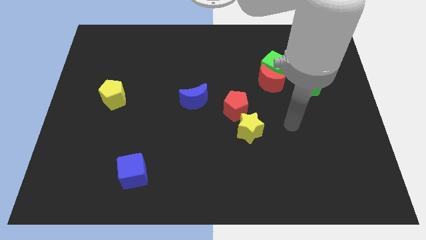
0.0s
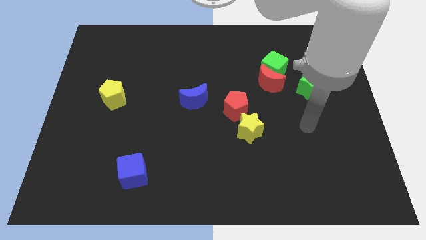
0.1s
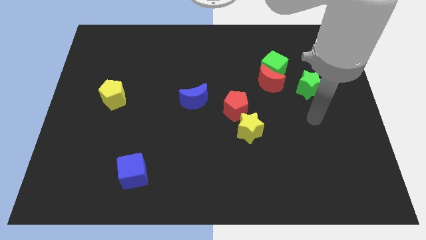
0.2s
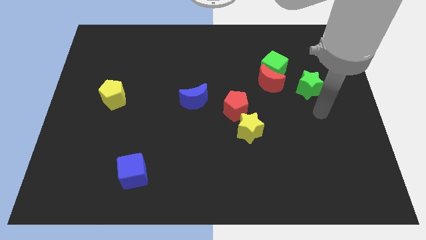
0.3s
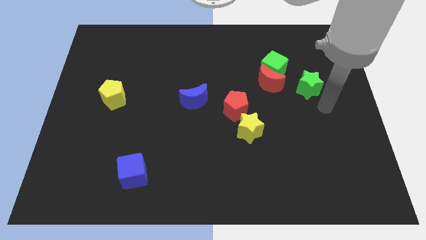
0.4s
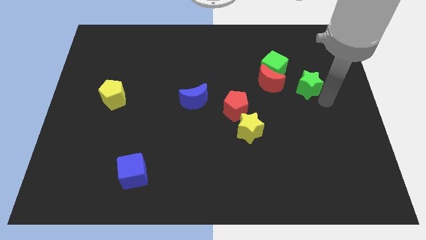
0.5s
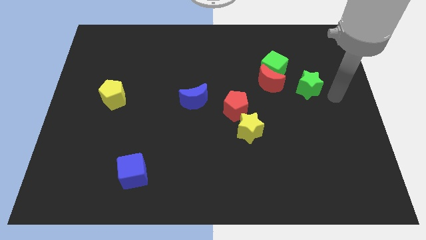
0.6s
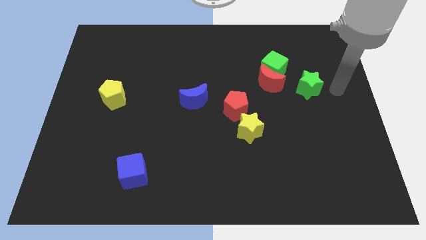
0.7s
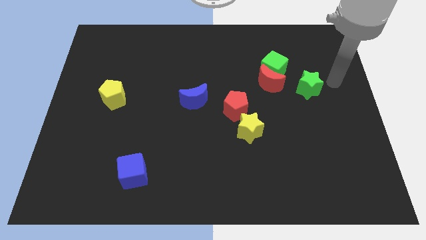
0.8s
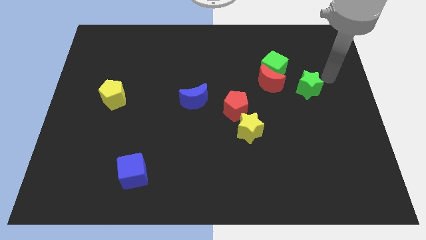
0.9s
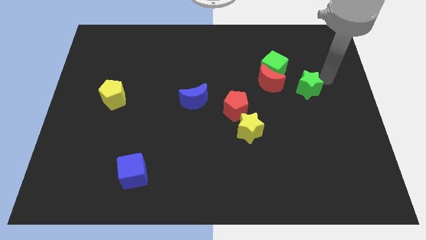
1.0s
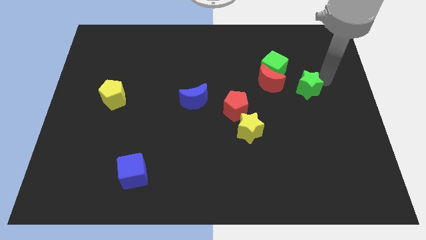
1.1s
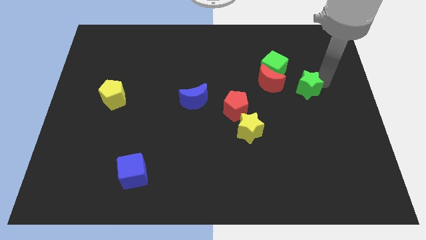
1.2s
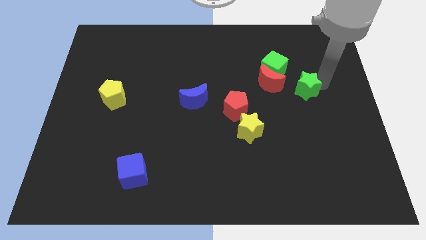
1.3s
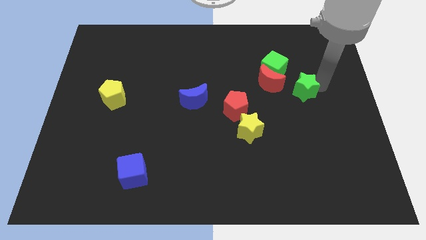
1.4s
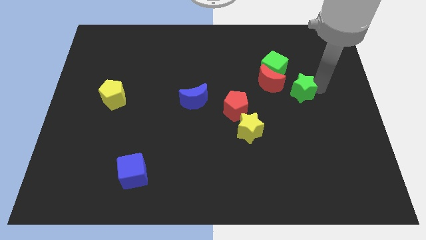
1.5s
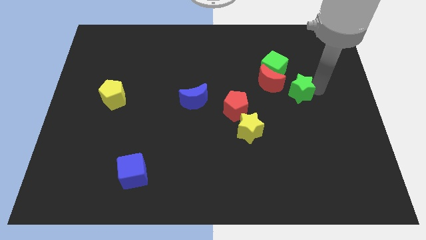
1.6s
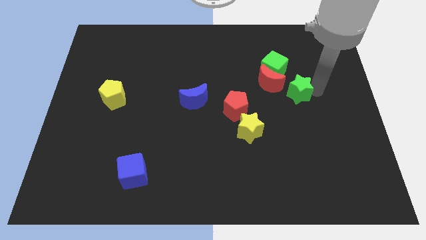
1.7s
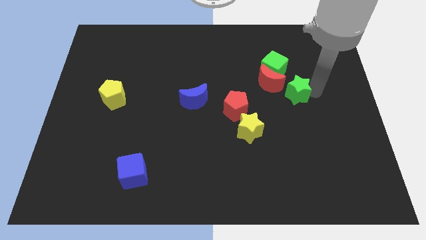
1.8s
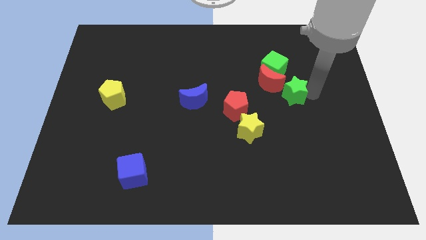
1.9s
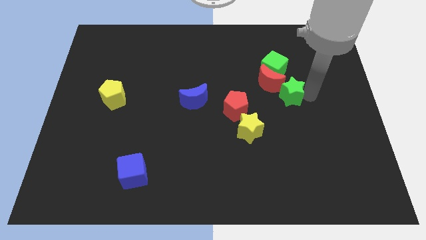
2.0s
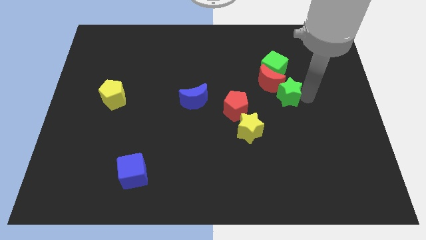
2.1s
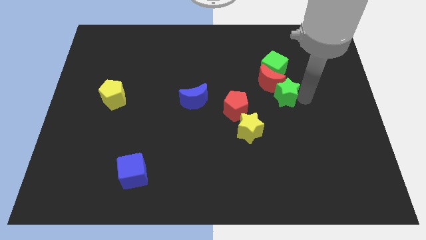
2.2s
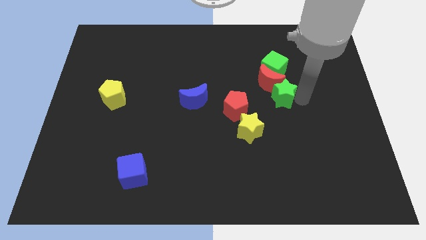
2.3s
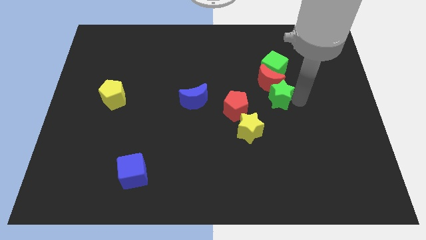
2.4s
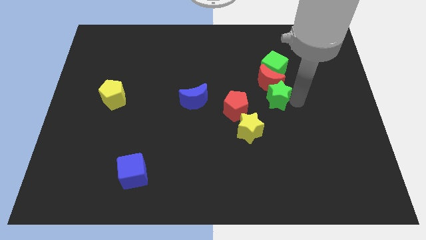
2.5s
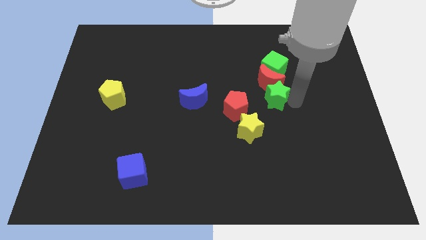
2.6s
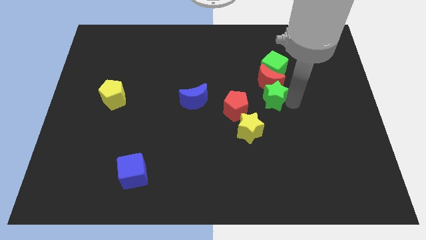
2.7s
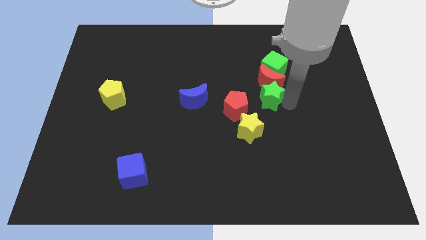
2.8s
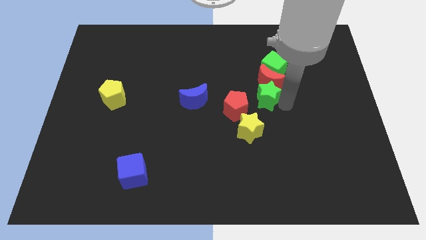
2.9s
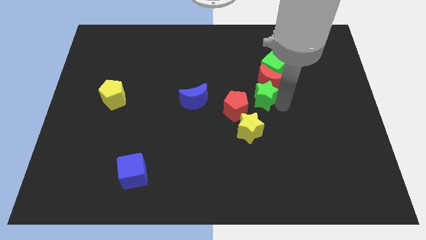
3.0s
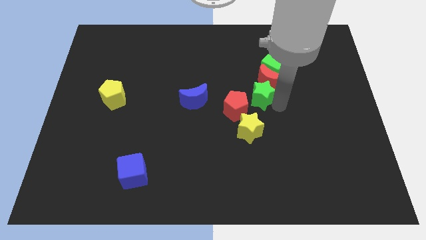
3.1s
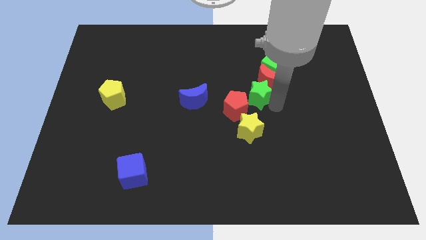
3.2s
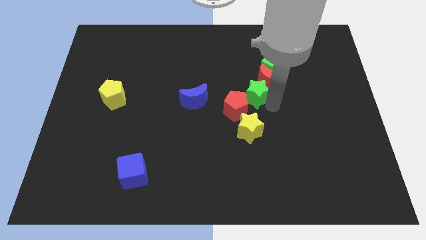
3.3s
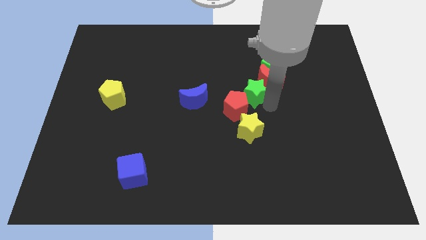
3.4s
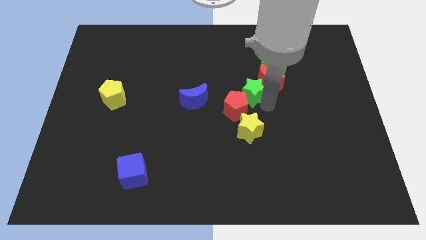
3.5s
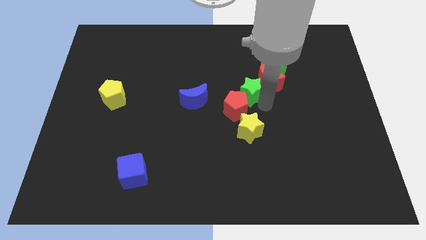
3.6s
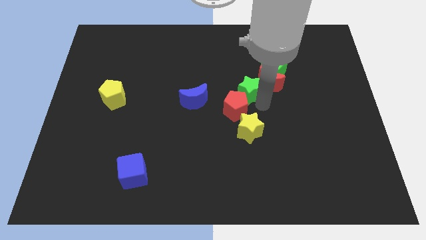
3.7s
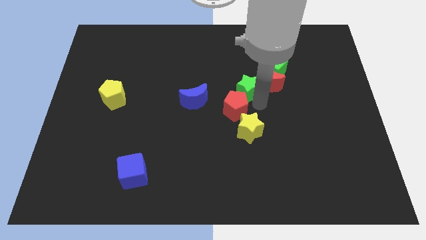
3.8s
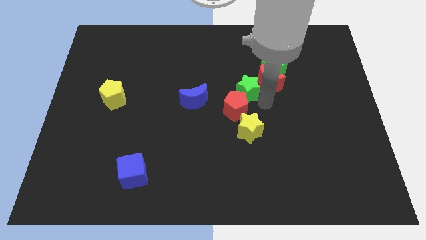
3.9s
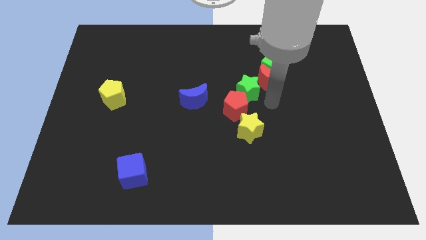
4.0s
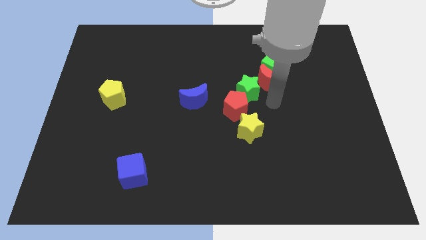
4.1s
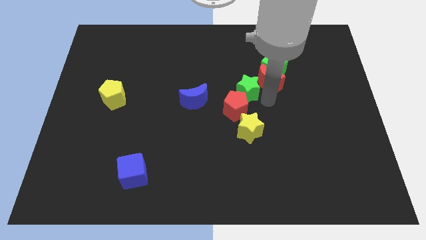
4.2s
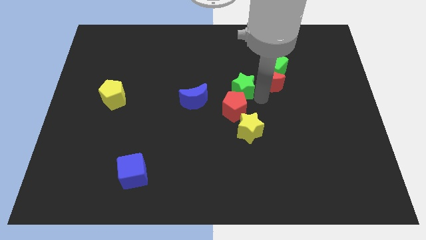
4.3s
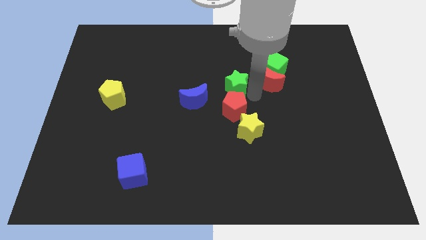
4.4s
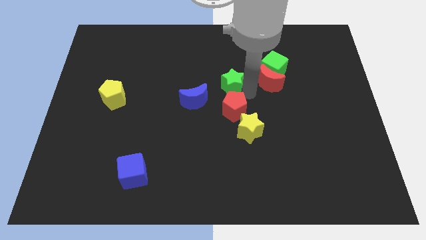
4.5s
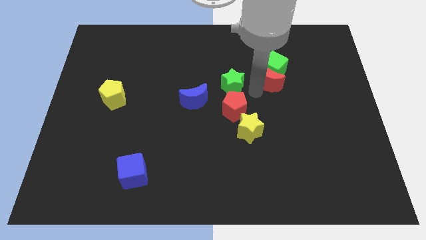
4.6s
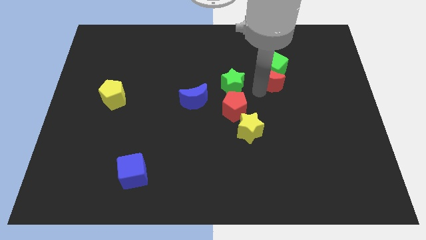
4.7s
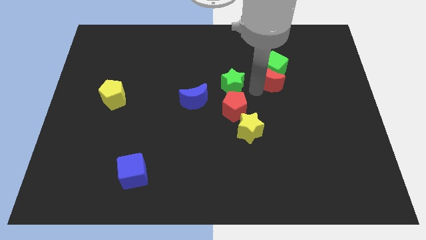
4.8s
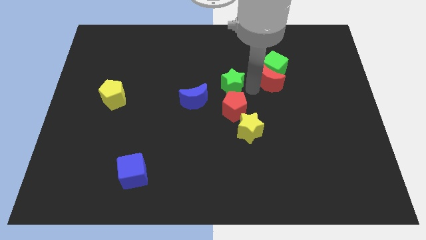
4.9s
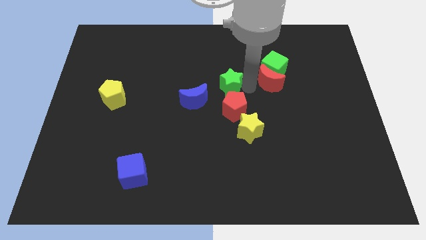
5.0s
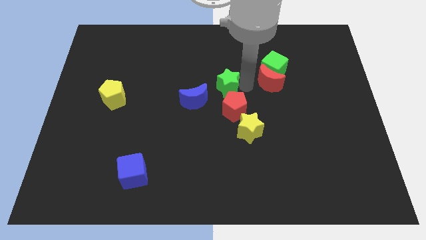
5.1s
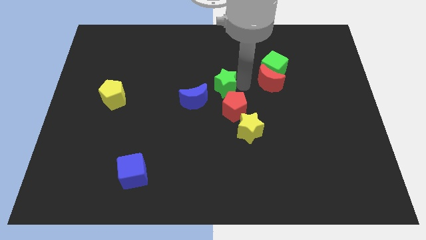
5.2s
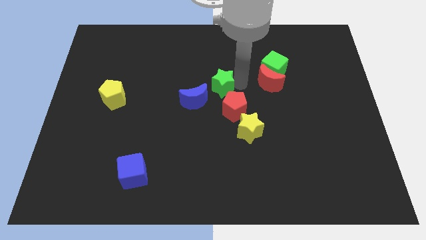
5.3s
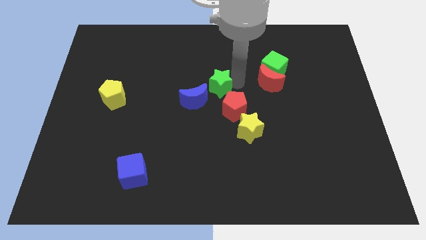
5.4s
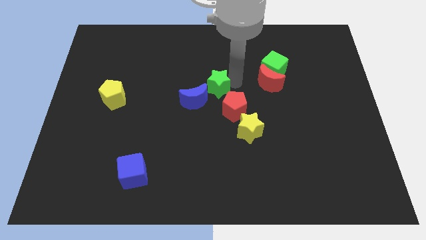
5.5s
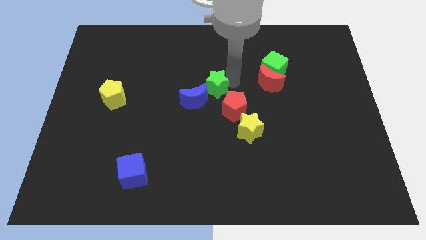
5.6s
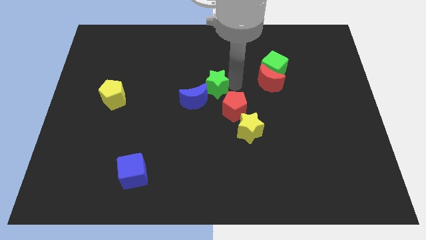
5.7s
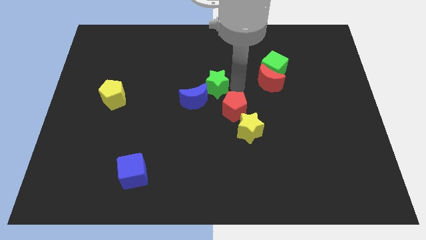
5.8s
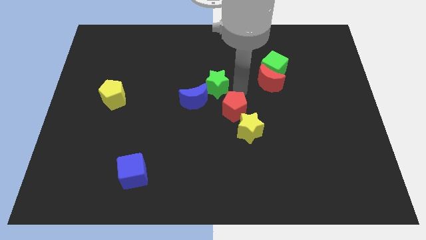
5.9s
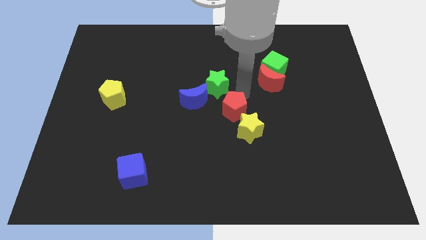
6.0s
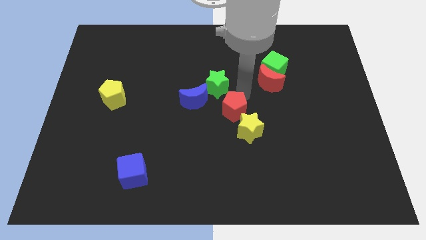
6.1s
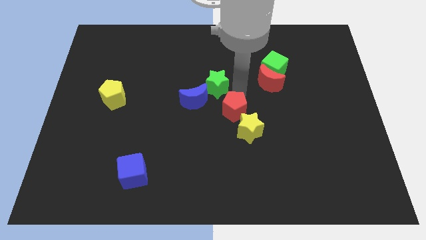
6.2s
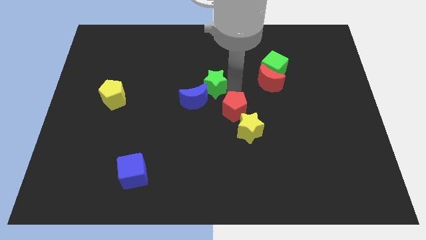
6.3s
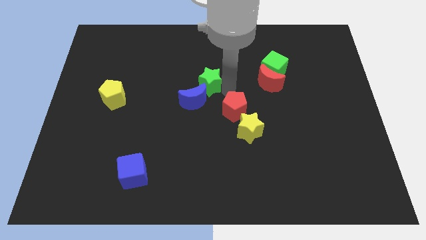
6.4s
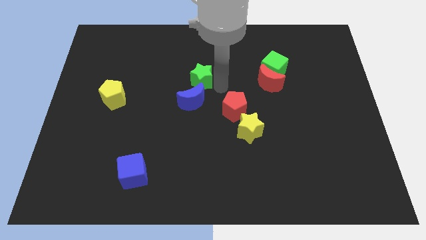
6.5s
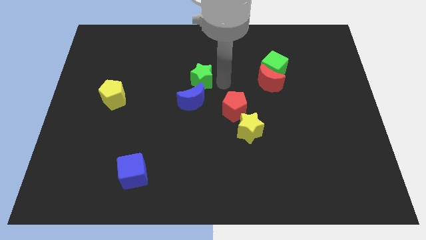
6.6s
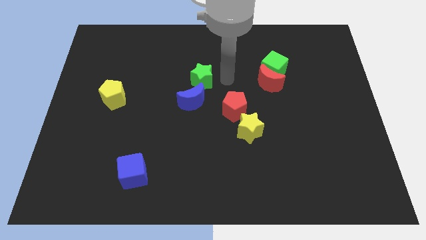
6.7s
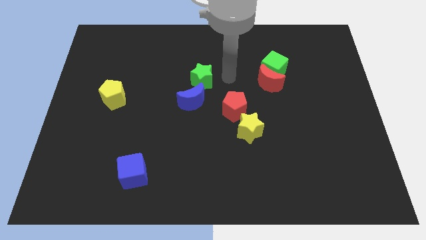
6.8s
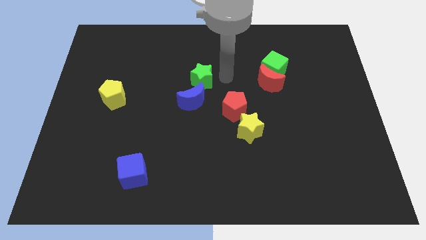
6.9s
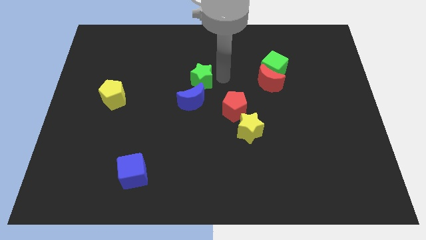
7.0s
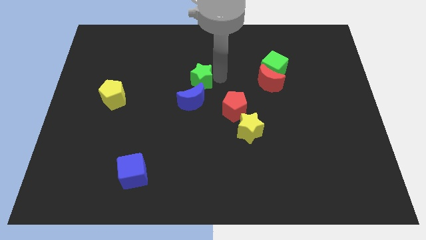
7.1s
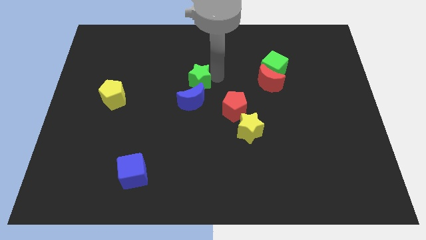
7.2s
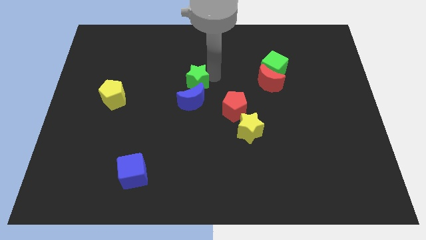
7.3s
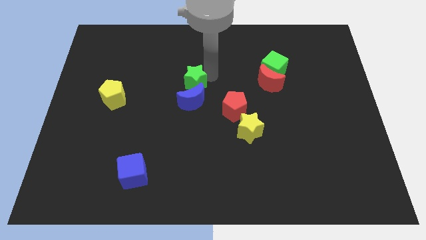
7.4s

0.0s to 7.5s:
push the green star to the top left of the blue moon

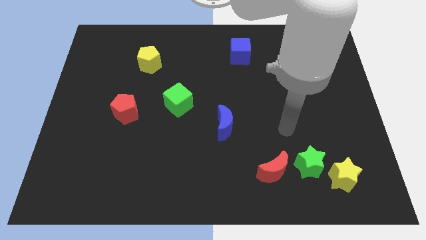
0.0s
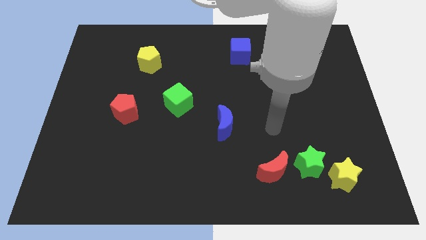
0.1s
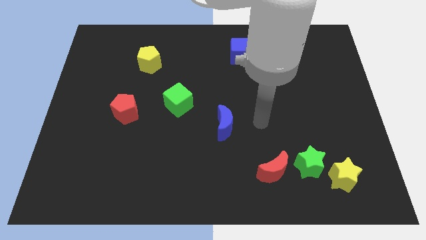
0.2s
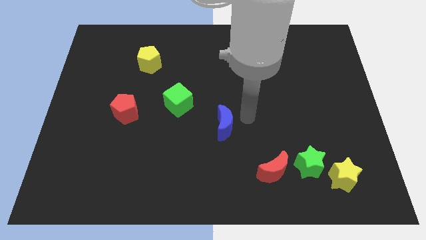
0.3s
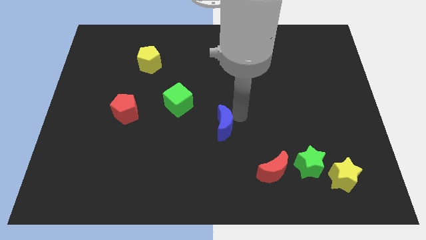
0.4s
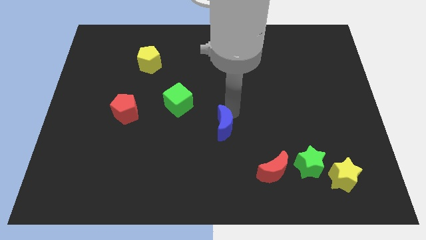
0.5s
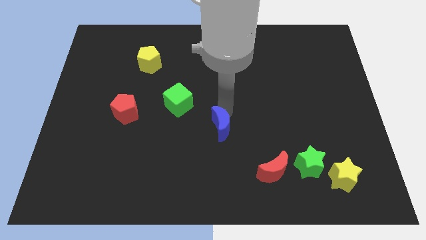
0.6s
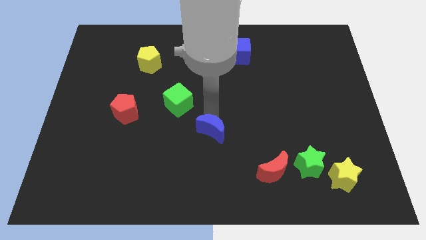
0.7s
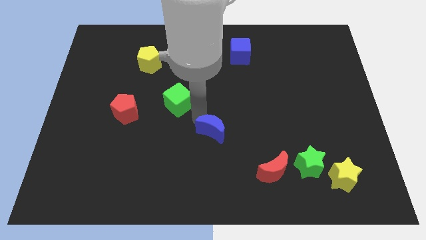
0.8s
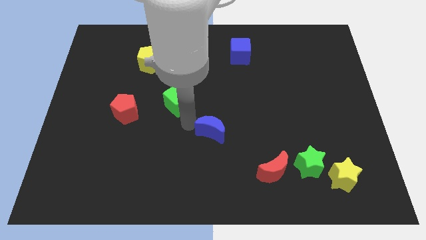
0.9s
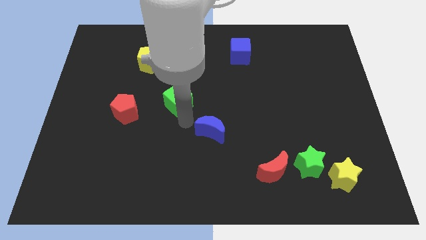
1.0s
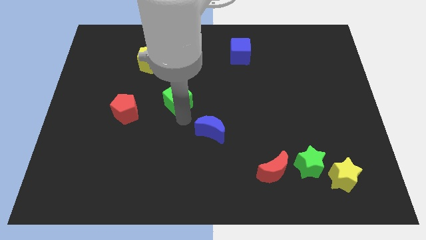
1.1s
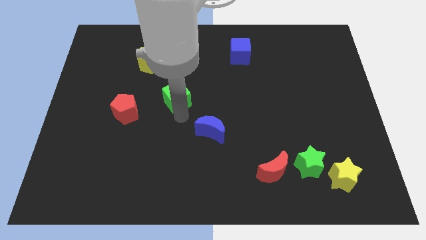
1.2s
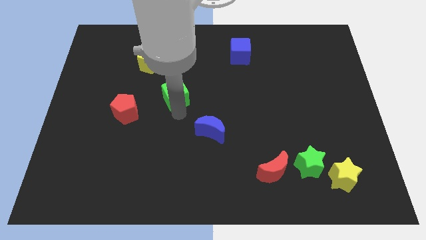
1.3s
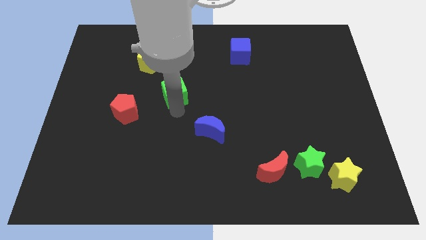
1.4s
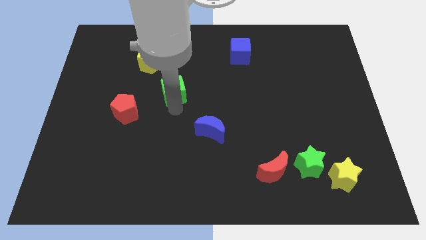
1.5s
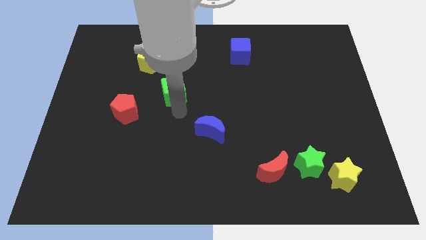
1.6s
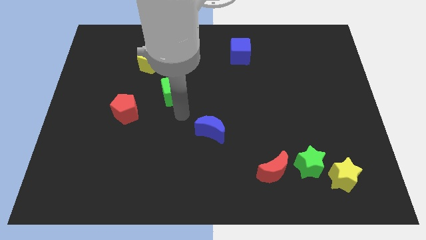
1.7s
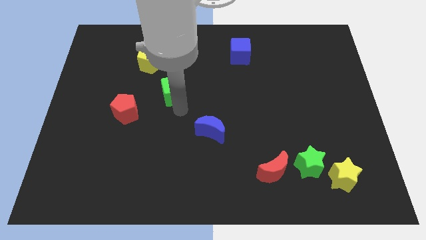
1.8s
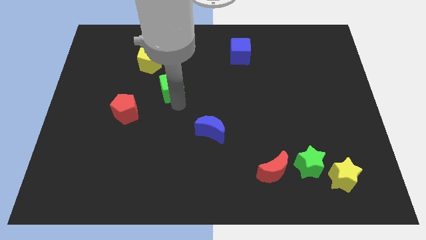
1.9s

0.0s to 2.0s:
push the green cube to the bottom right of the yellow pentagon
